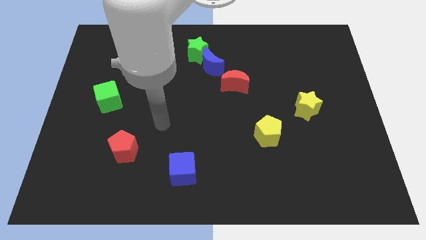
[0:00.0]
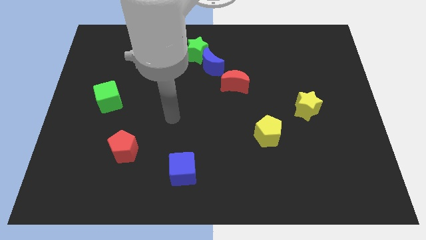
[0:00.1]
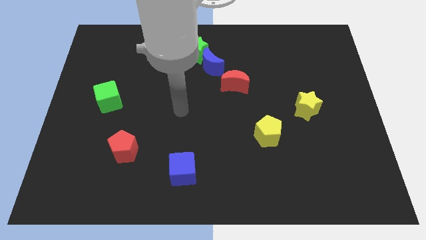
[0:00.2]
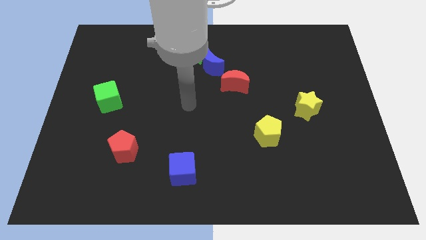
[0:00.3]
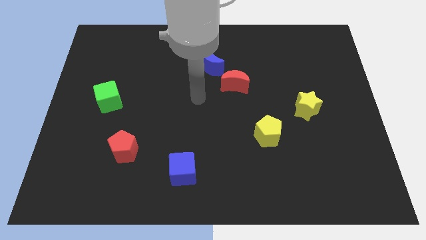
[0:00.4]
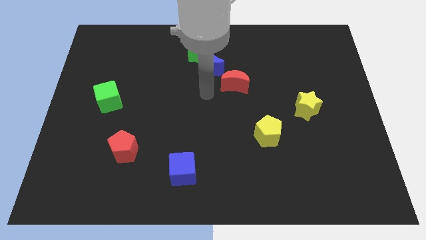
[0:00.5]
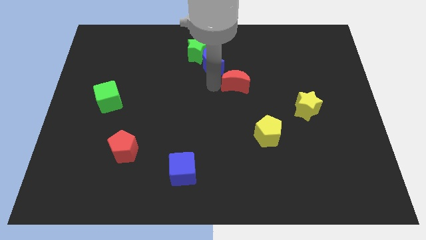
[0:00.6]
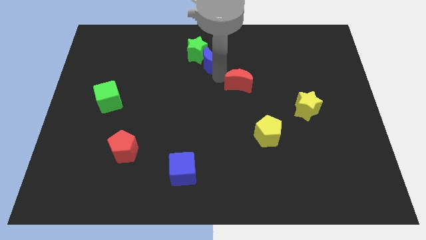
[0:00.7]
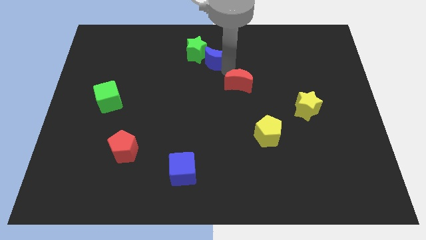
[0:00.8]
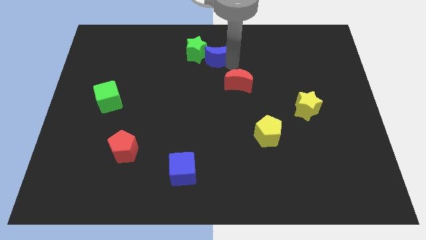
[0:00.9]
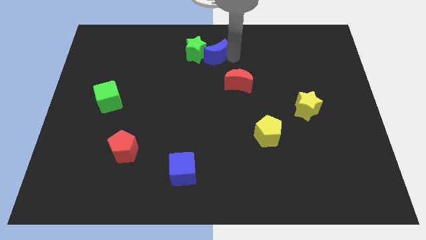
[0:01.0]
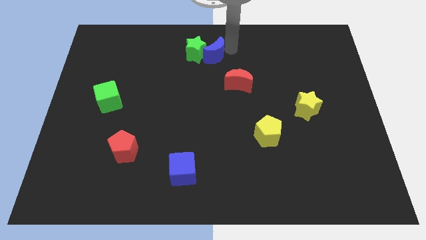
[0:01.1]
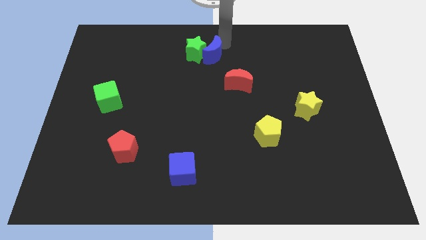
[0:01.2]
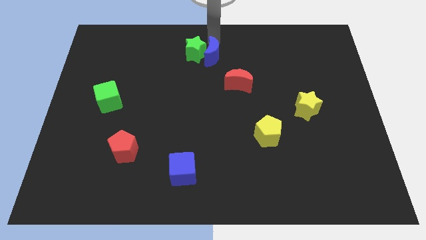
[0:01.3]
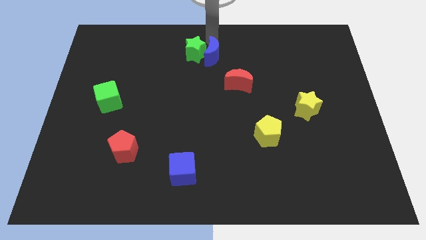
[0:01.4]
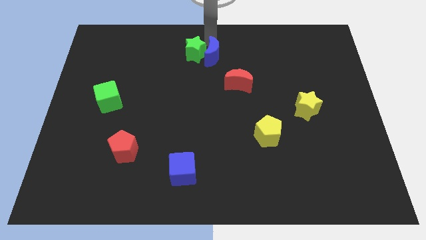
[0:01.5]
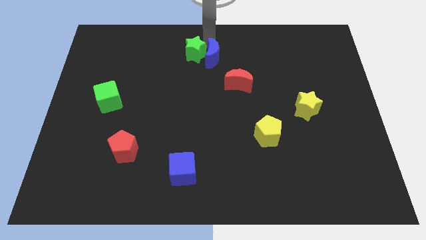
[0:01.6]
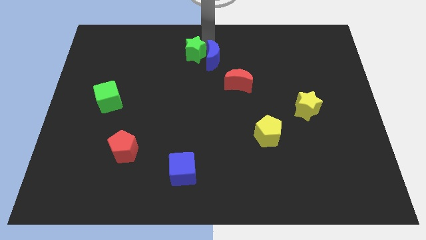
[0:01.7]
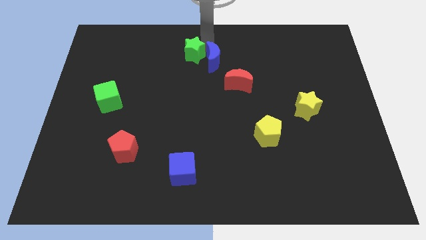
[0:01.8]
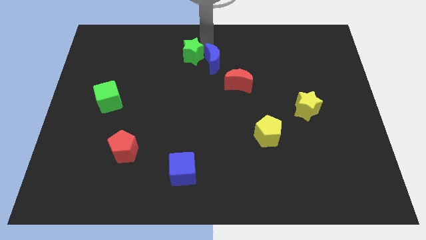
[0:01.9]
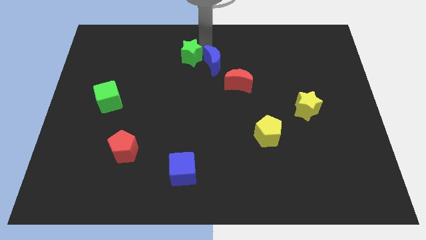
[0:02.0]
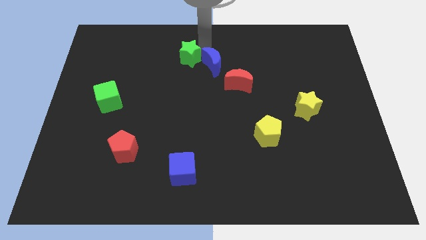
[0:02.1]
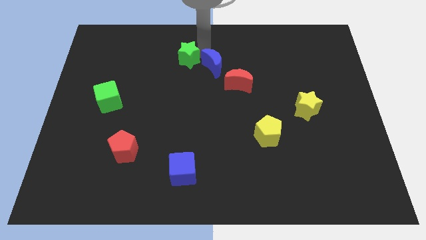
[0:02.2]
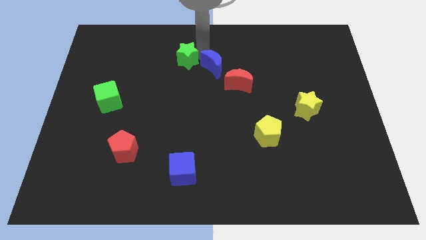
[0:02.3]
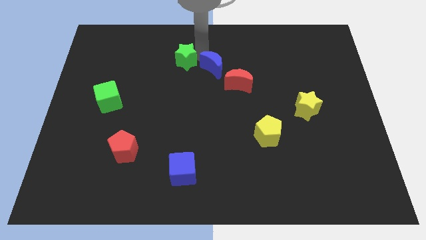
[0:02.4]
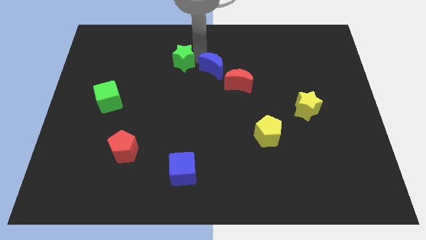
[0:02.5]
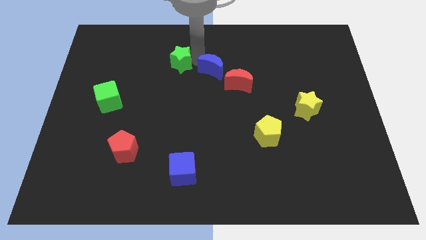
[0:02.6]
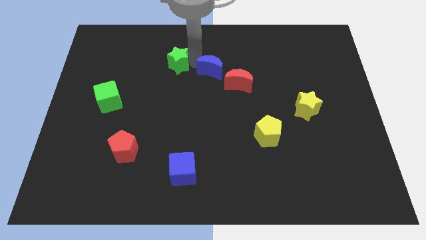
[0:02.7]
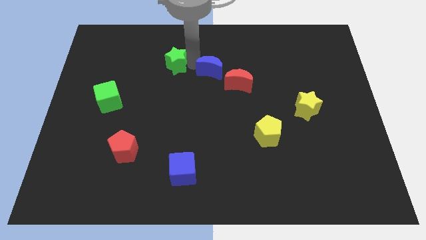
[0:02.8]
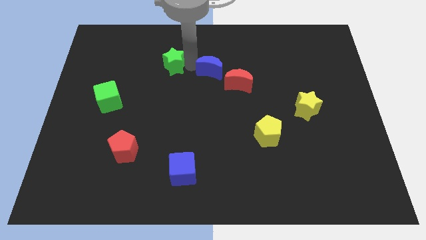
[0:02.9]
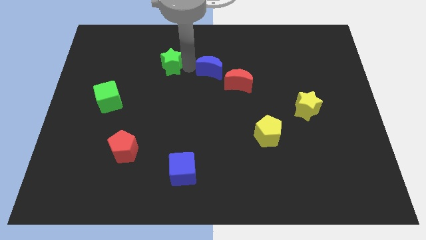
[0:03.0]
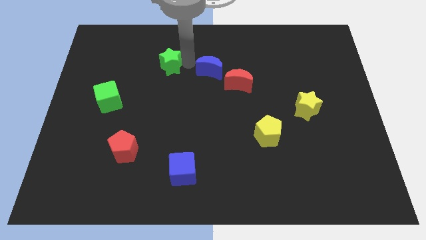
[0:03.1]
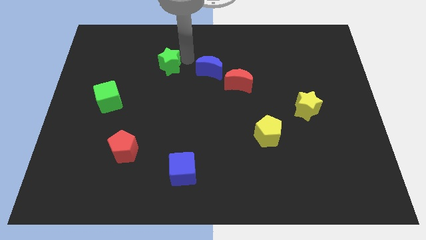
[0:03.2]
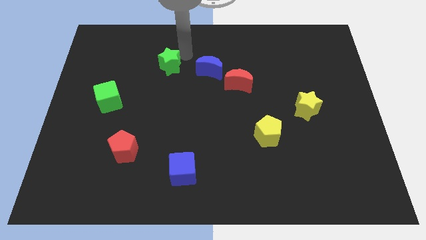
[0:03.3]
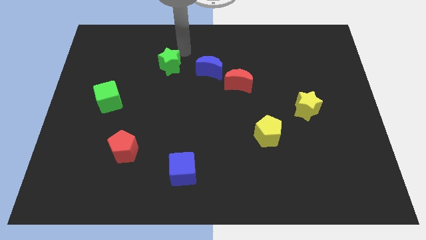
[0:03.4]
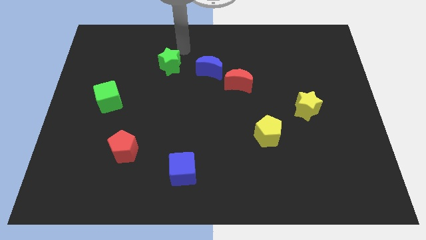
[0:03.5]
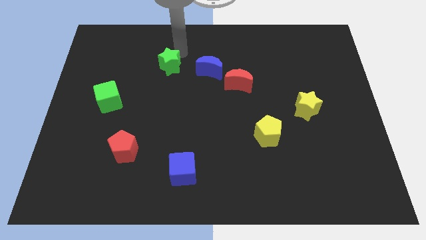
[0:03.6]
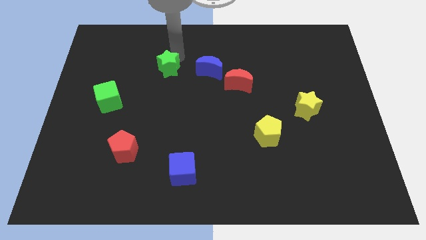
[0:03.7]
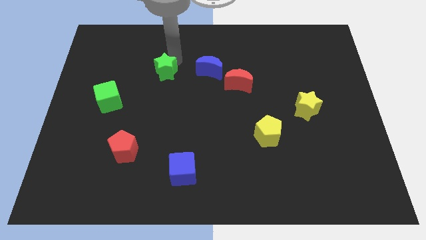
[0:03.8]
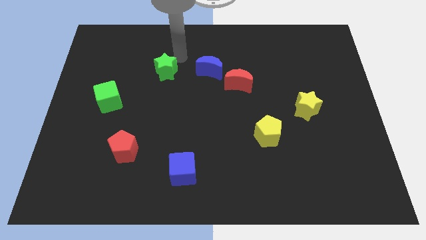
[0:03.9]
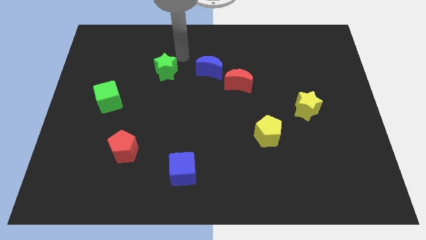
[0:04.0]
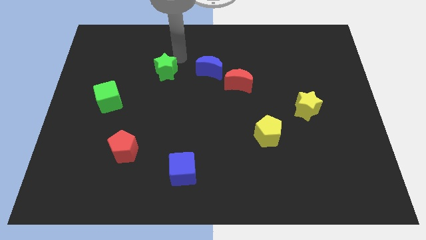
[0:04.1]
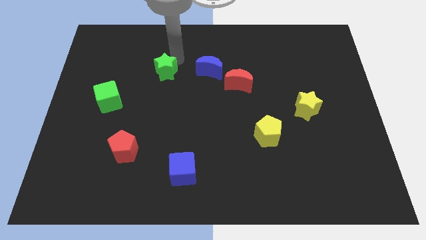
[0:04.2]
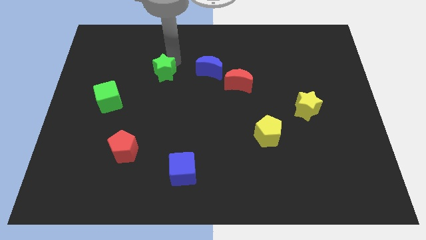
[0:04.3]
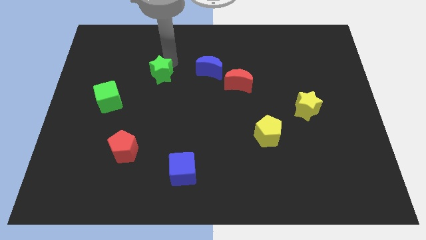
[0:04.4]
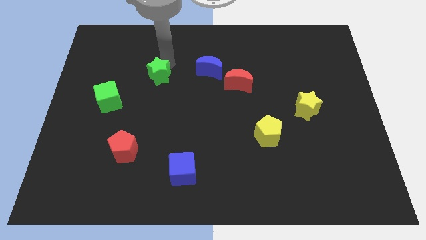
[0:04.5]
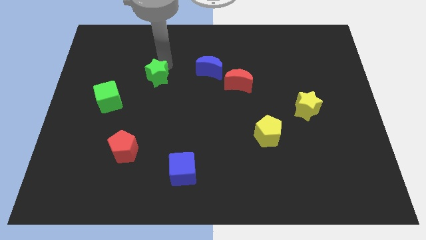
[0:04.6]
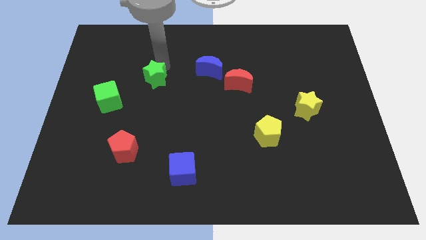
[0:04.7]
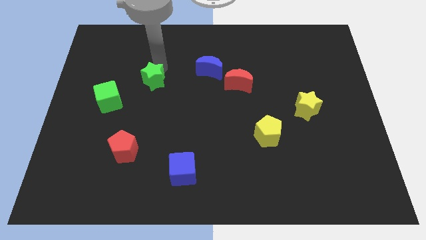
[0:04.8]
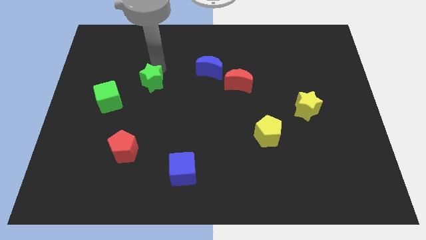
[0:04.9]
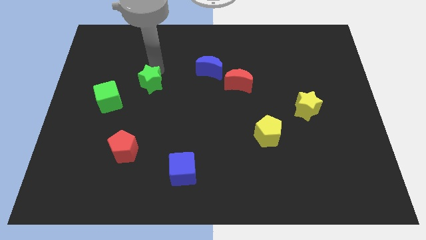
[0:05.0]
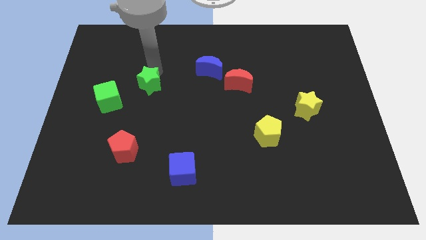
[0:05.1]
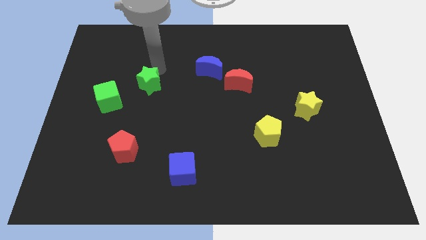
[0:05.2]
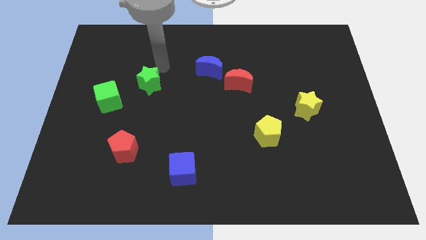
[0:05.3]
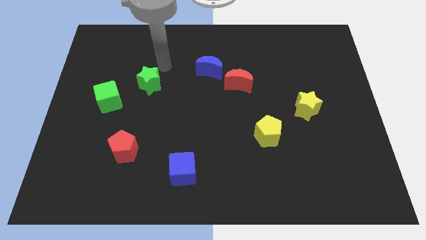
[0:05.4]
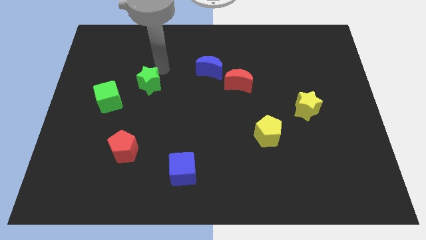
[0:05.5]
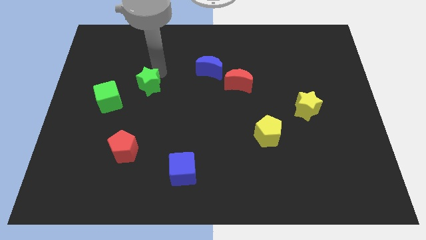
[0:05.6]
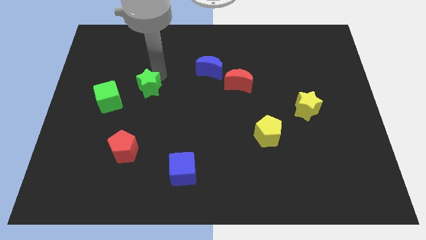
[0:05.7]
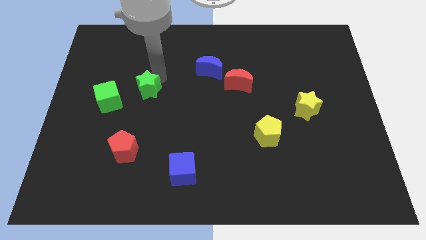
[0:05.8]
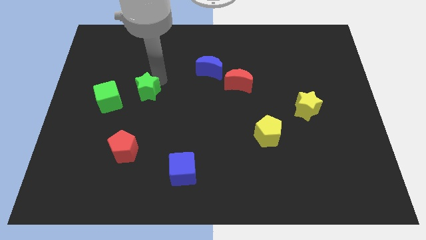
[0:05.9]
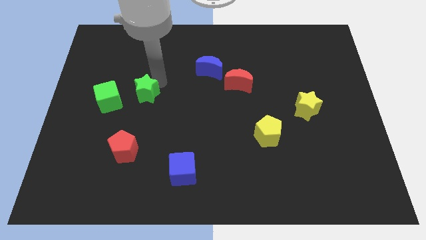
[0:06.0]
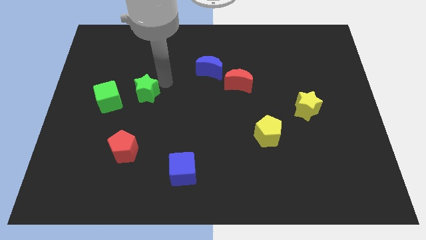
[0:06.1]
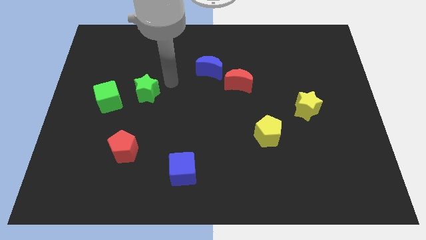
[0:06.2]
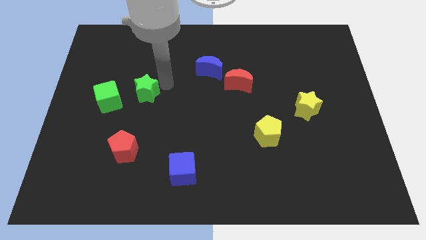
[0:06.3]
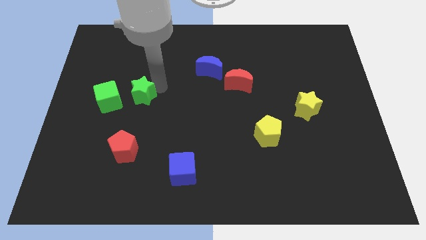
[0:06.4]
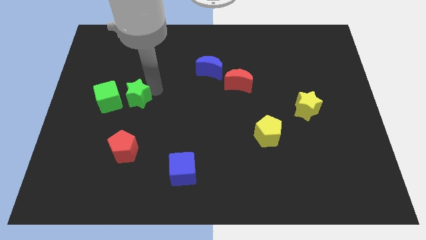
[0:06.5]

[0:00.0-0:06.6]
slide the green star downwards and to the left

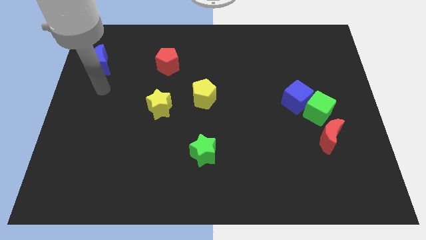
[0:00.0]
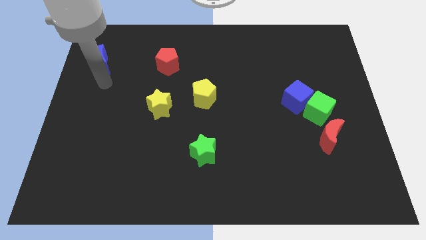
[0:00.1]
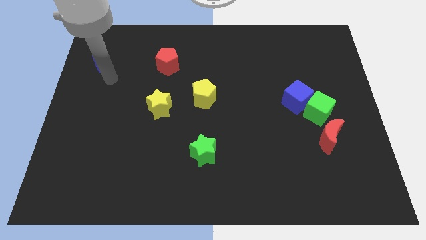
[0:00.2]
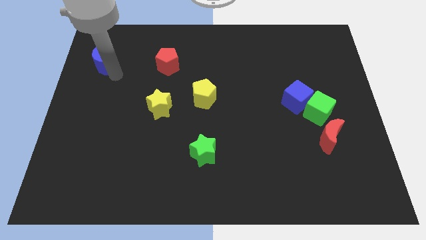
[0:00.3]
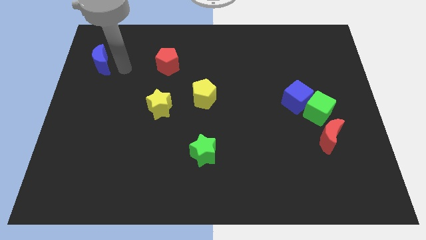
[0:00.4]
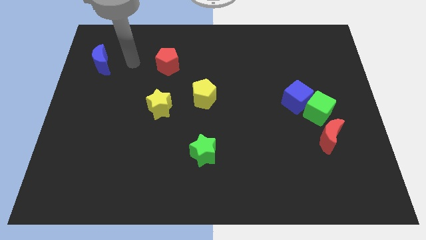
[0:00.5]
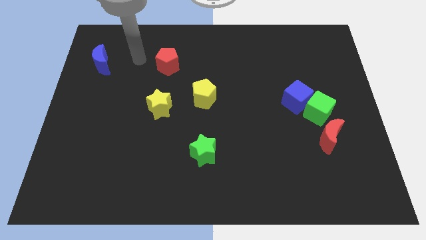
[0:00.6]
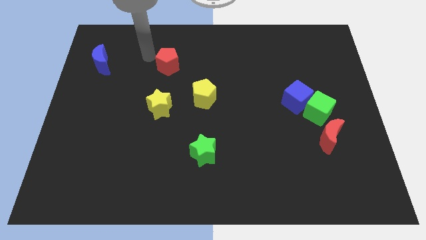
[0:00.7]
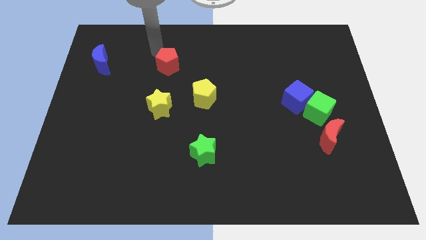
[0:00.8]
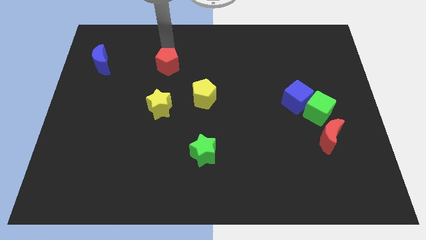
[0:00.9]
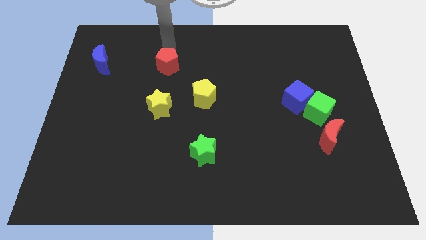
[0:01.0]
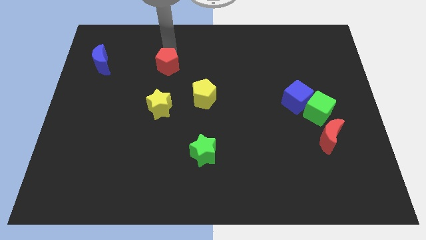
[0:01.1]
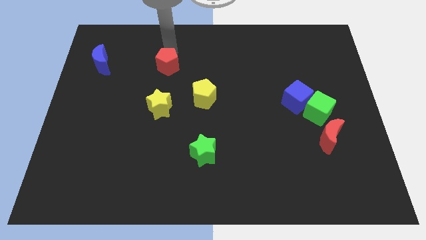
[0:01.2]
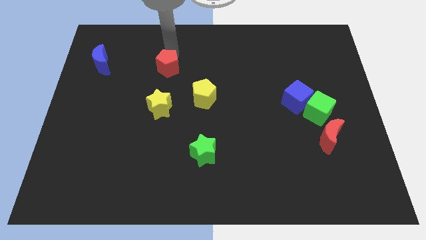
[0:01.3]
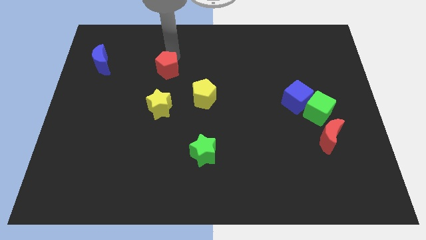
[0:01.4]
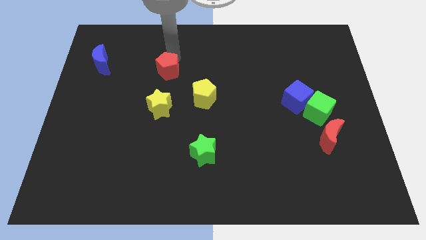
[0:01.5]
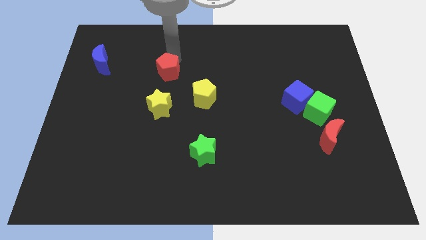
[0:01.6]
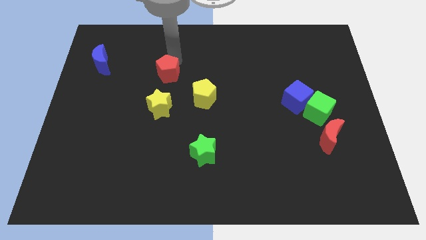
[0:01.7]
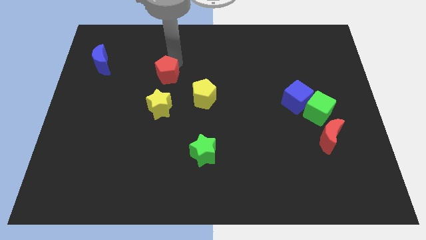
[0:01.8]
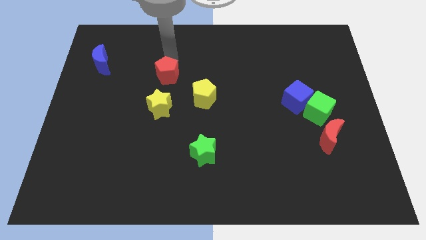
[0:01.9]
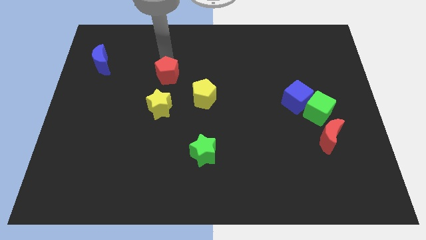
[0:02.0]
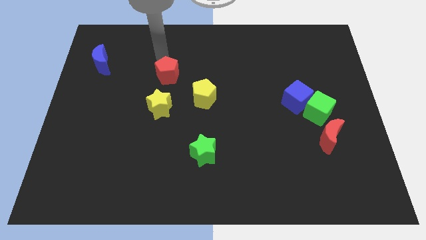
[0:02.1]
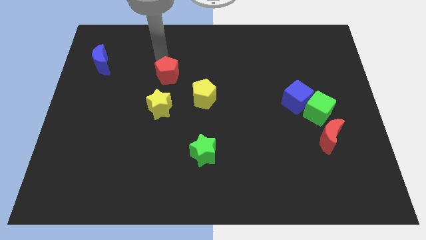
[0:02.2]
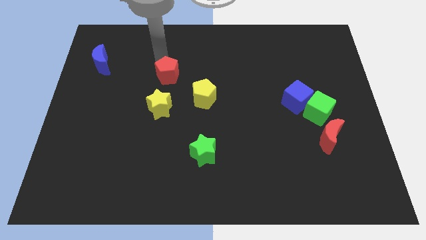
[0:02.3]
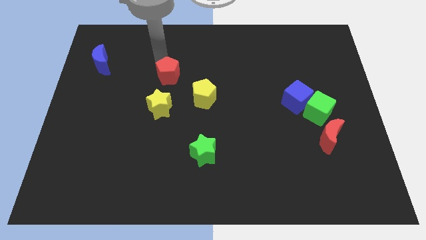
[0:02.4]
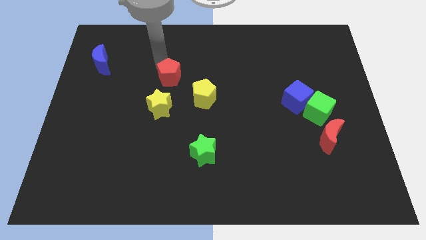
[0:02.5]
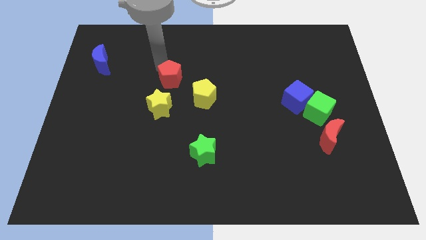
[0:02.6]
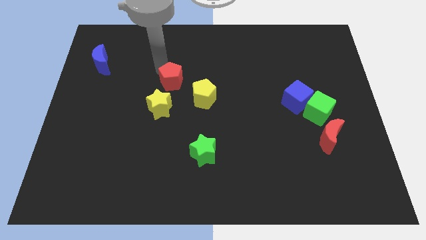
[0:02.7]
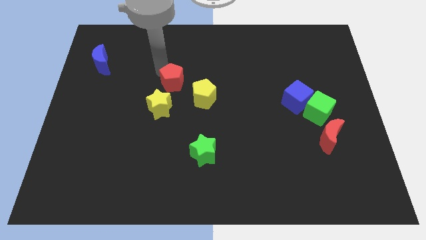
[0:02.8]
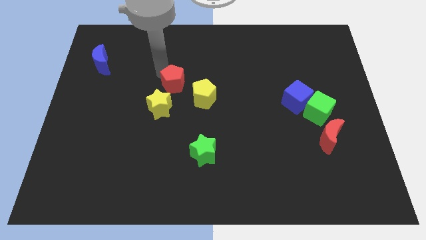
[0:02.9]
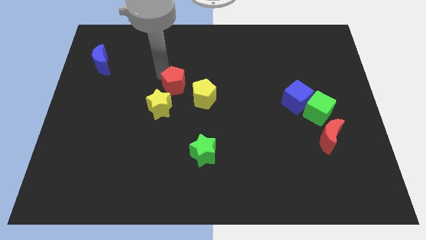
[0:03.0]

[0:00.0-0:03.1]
move the red pentagon downwards a little bit
